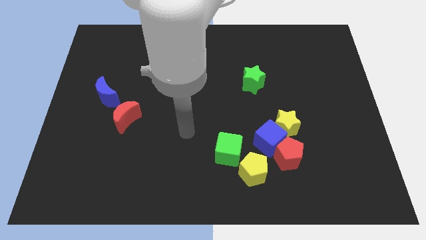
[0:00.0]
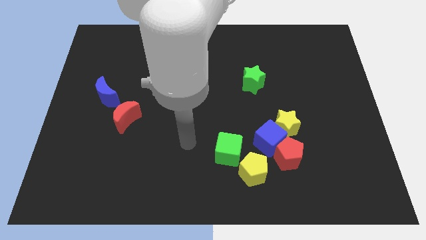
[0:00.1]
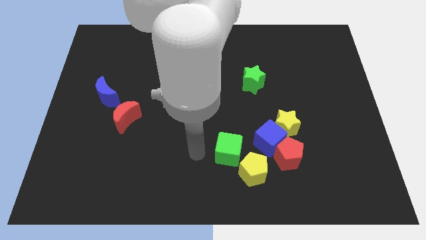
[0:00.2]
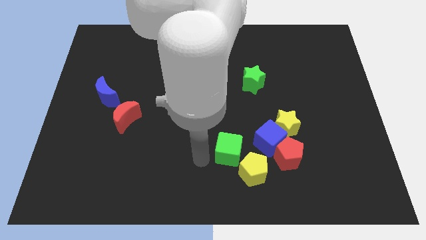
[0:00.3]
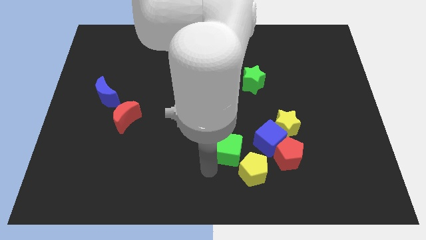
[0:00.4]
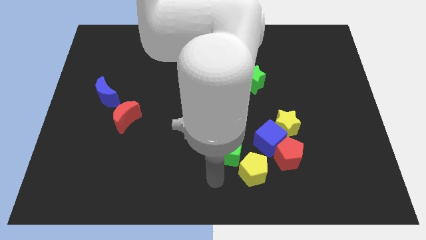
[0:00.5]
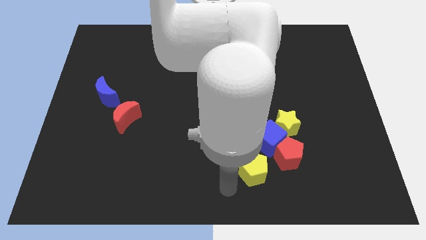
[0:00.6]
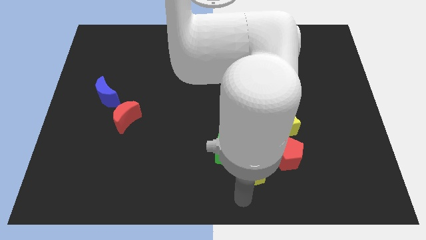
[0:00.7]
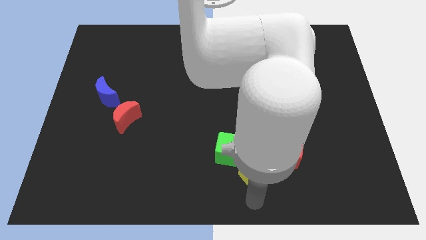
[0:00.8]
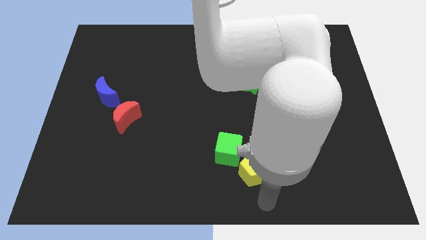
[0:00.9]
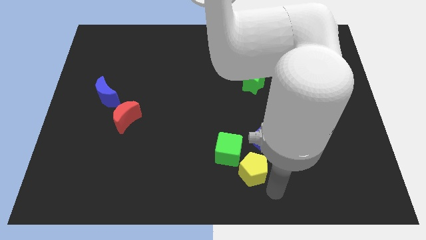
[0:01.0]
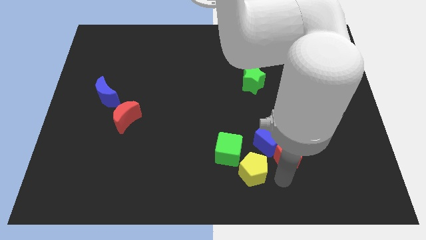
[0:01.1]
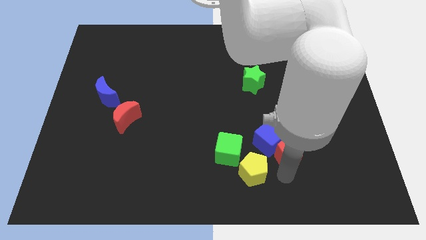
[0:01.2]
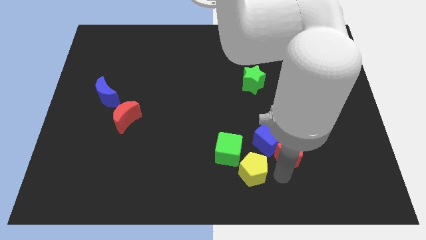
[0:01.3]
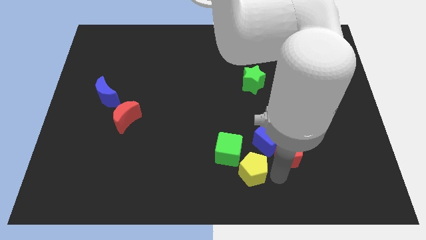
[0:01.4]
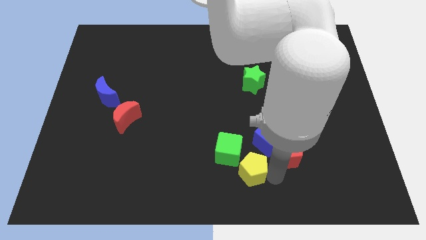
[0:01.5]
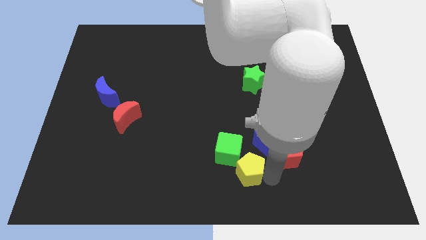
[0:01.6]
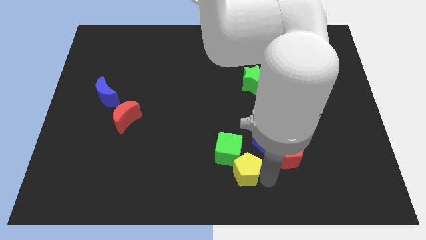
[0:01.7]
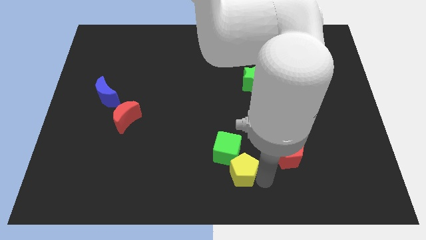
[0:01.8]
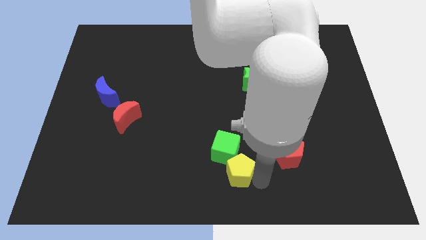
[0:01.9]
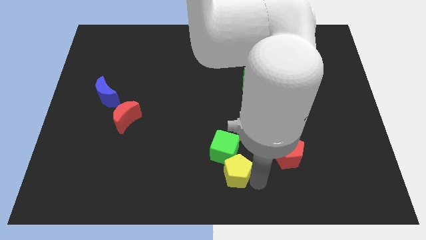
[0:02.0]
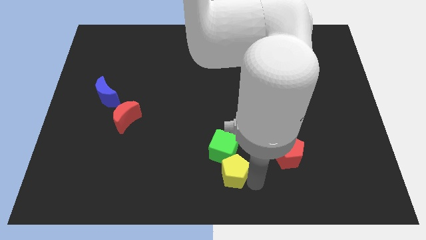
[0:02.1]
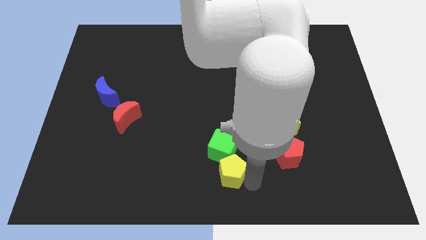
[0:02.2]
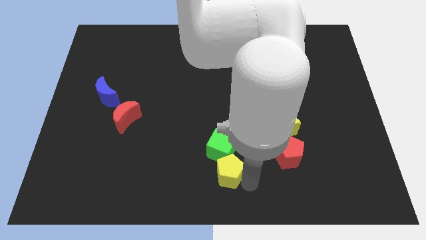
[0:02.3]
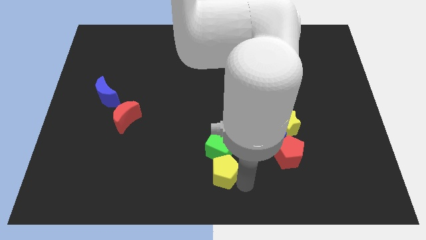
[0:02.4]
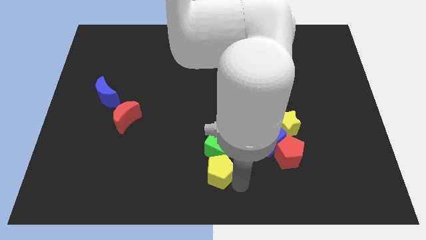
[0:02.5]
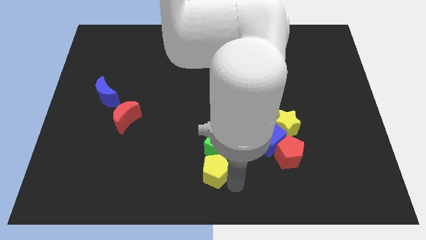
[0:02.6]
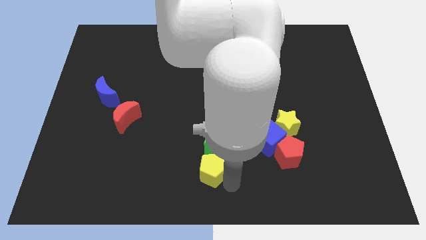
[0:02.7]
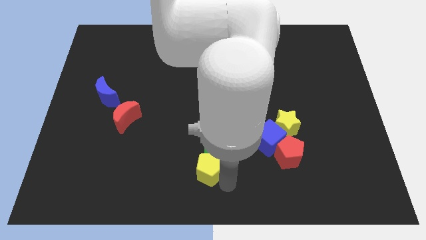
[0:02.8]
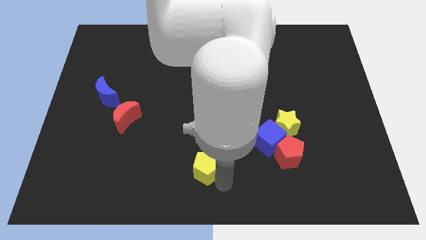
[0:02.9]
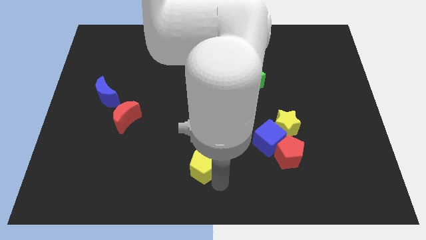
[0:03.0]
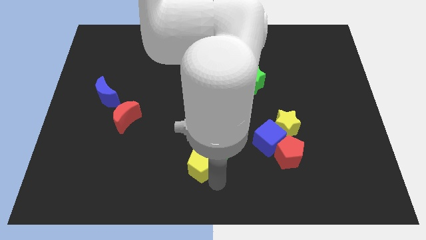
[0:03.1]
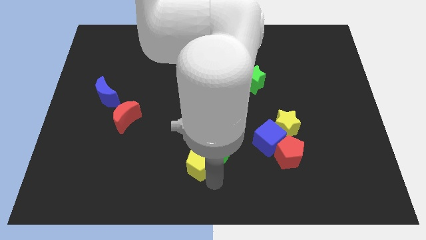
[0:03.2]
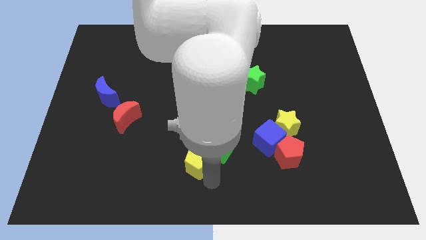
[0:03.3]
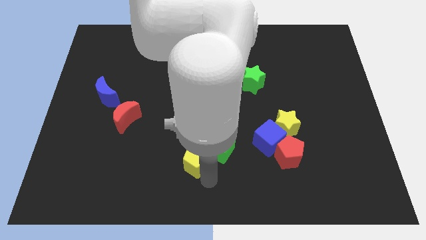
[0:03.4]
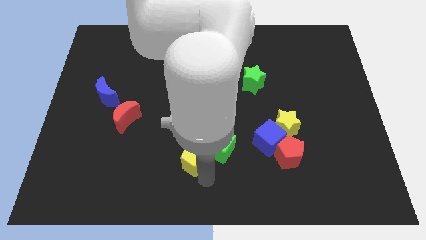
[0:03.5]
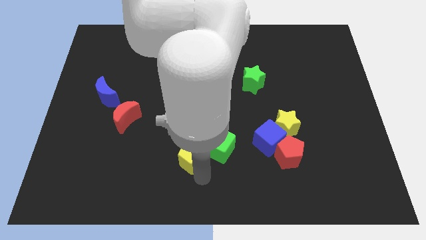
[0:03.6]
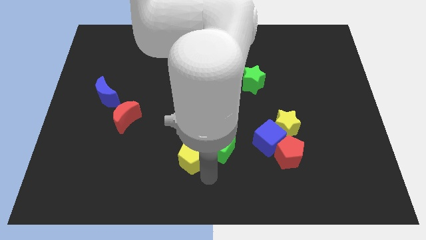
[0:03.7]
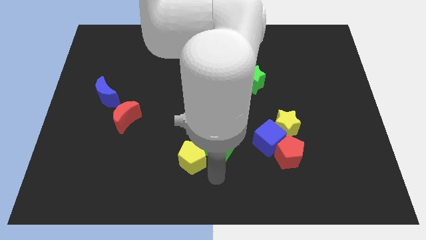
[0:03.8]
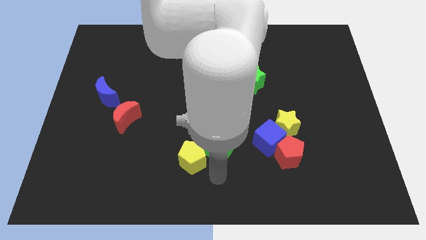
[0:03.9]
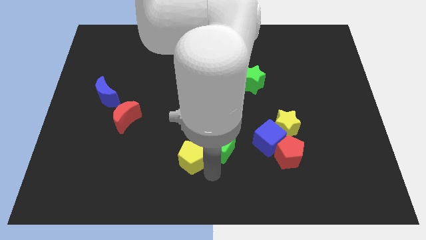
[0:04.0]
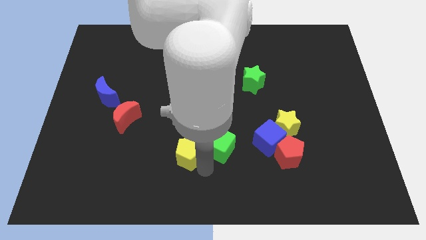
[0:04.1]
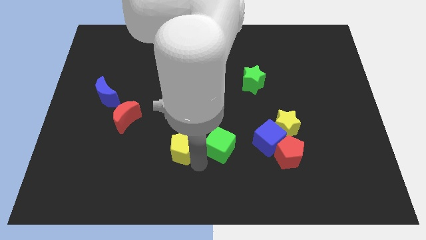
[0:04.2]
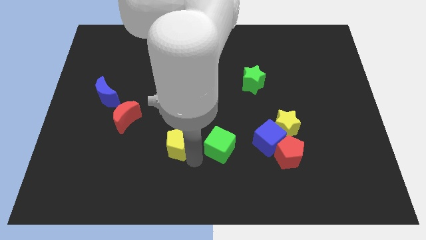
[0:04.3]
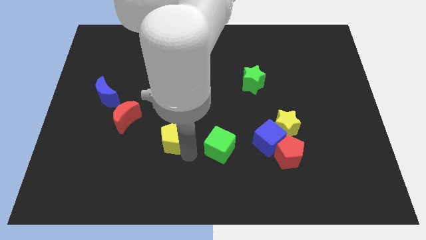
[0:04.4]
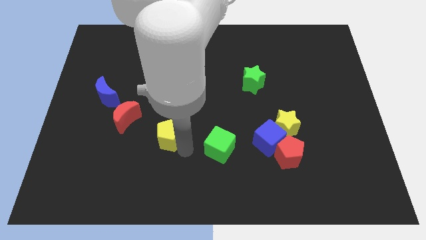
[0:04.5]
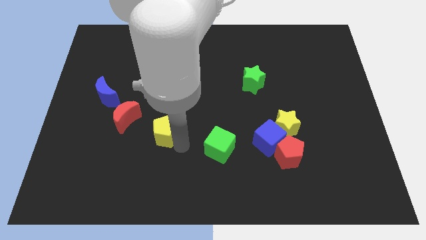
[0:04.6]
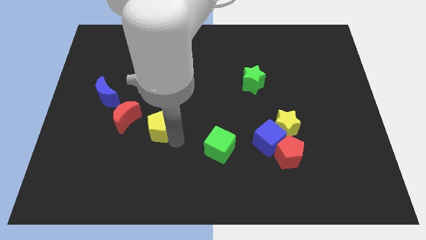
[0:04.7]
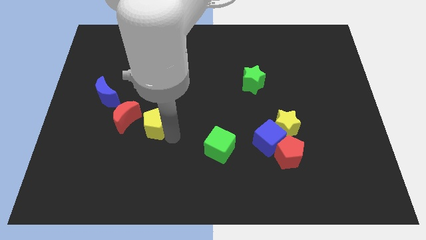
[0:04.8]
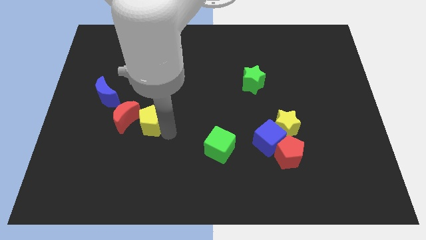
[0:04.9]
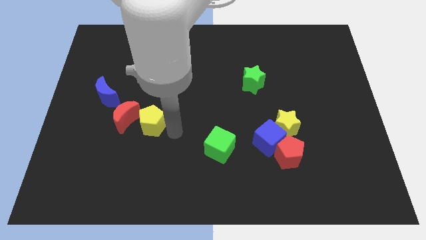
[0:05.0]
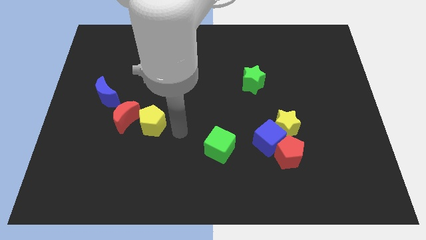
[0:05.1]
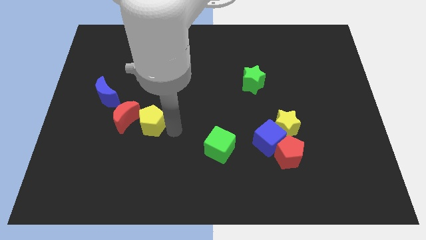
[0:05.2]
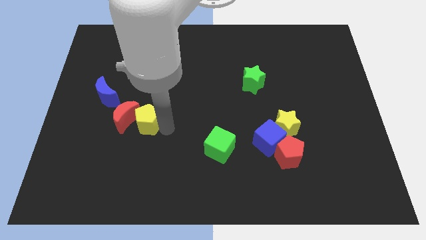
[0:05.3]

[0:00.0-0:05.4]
push the yellow pentagon next to the red moon

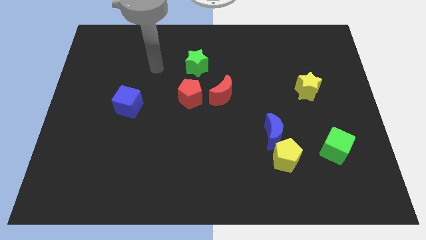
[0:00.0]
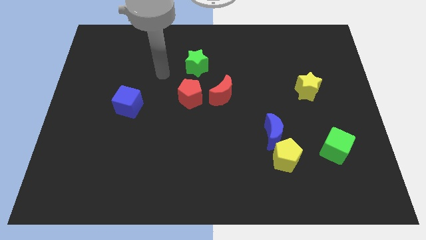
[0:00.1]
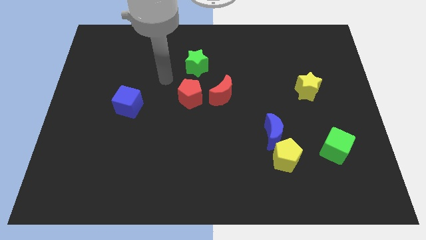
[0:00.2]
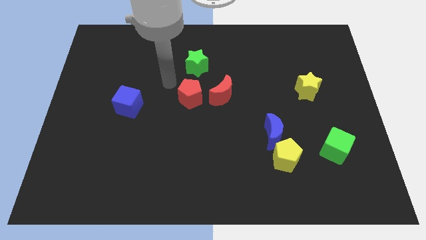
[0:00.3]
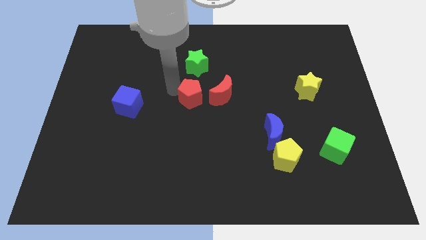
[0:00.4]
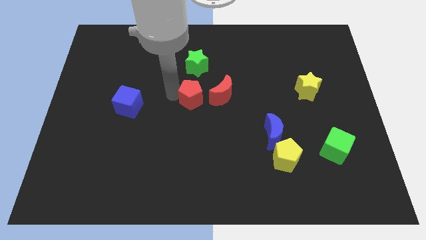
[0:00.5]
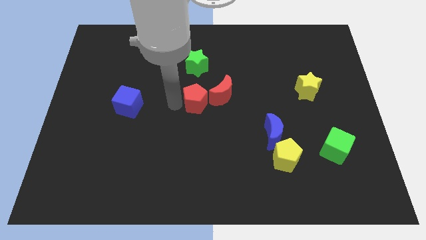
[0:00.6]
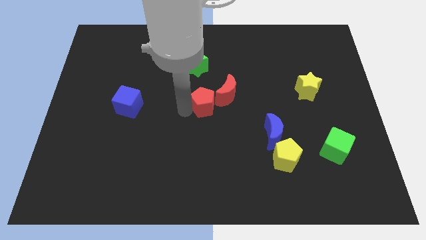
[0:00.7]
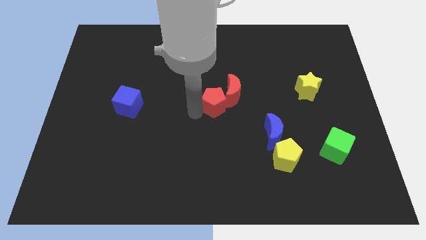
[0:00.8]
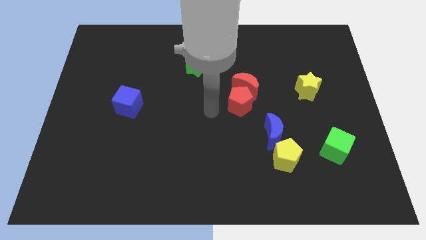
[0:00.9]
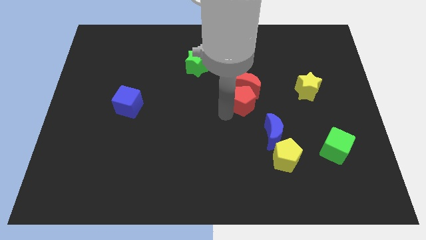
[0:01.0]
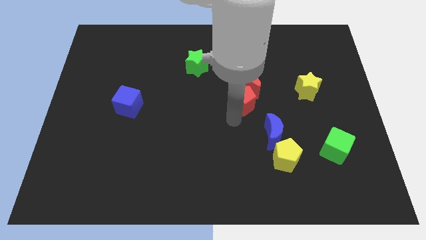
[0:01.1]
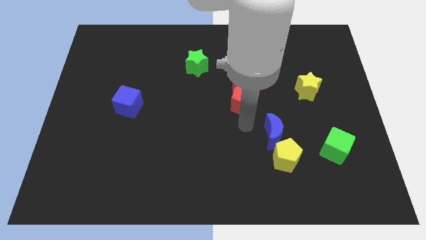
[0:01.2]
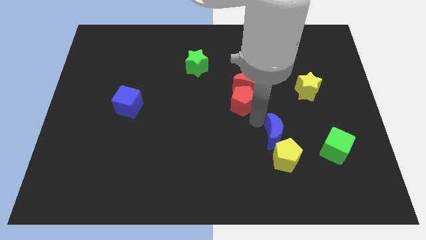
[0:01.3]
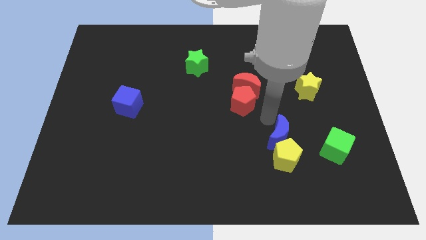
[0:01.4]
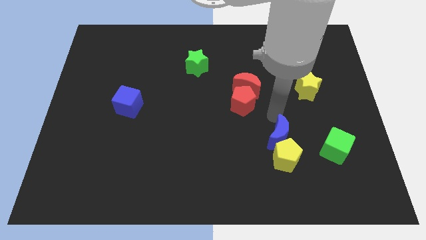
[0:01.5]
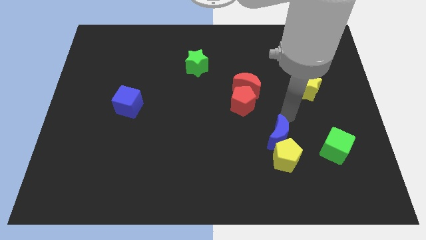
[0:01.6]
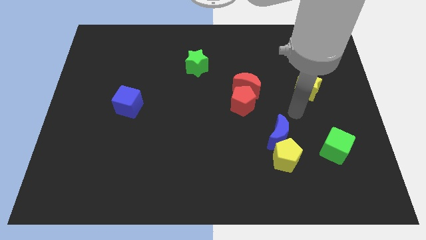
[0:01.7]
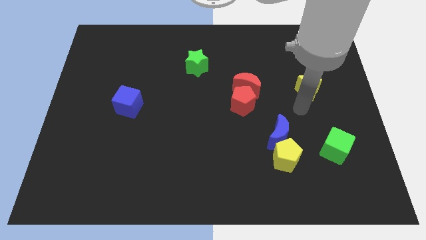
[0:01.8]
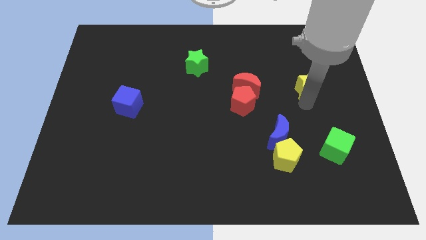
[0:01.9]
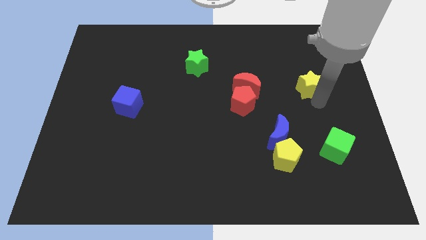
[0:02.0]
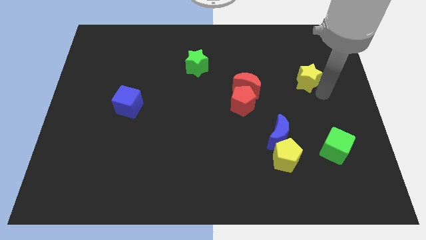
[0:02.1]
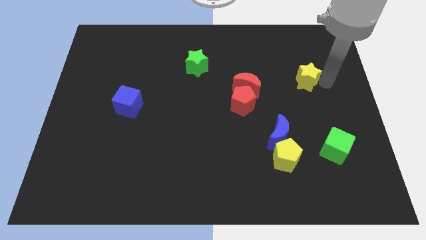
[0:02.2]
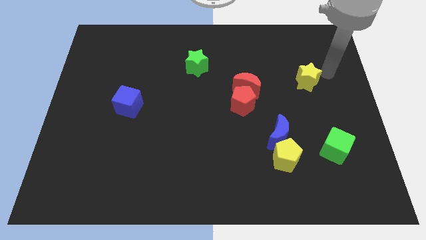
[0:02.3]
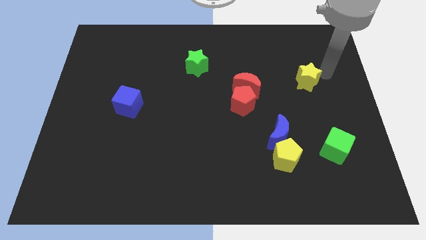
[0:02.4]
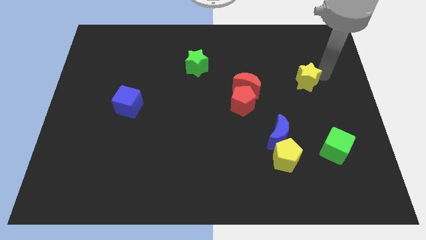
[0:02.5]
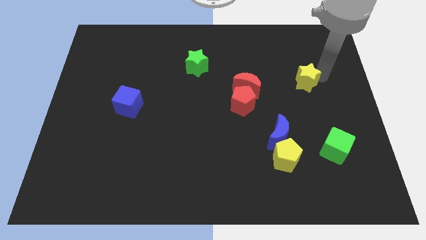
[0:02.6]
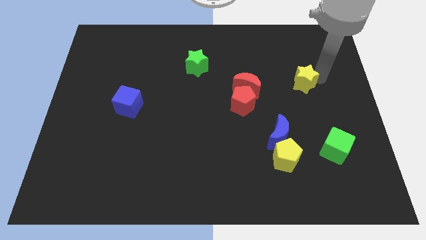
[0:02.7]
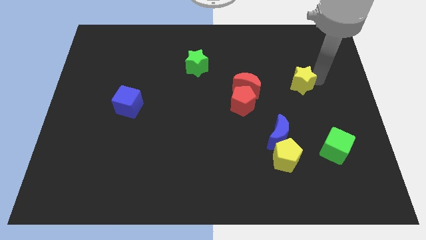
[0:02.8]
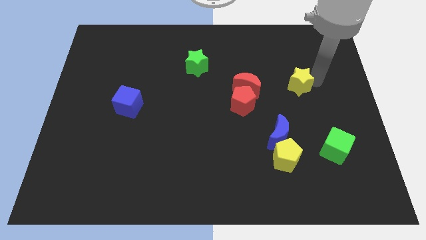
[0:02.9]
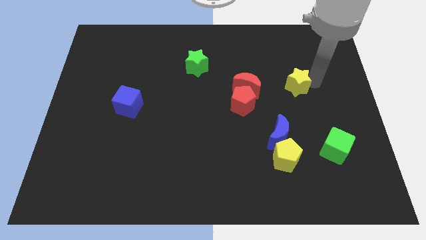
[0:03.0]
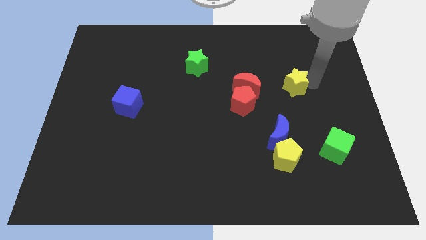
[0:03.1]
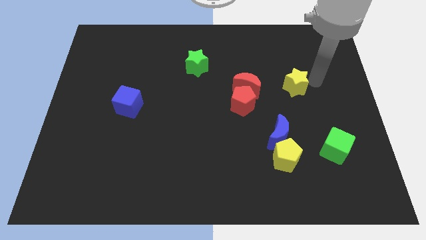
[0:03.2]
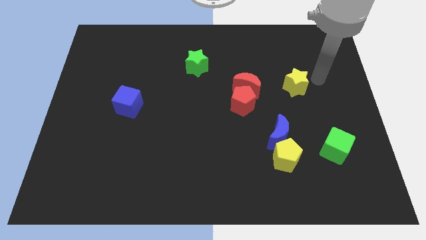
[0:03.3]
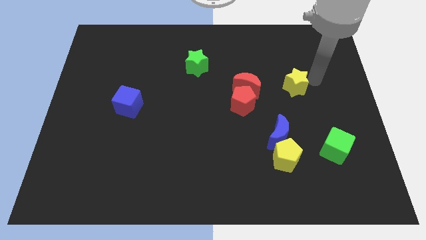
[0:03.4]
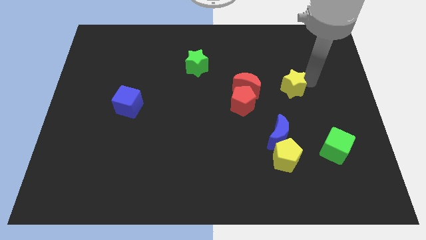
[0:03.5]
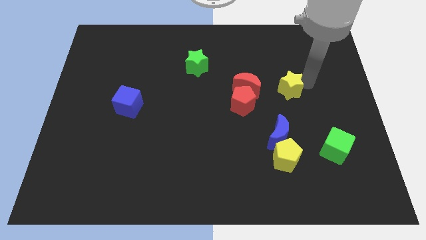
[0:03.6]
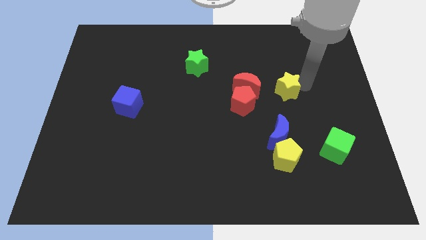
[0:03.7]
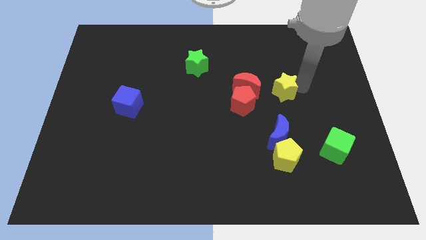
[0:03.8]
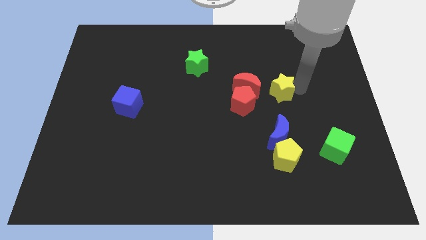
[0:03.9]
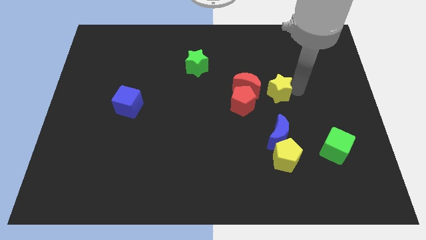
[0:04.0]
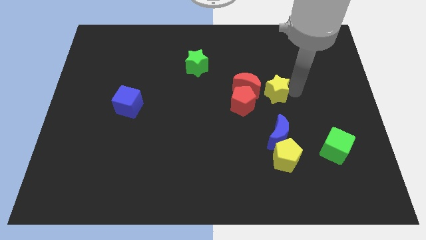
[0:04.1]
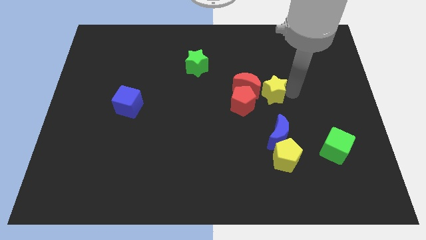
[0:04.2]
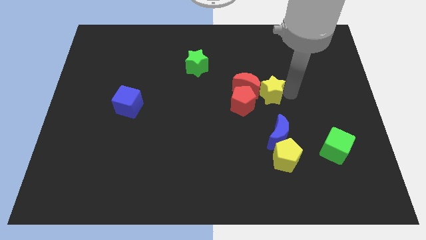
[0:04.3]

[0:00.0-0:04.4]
push the yellow star close to the red moon
